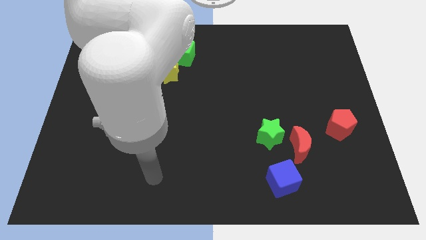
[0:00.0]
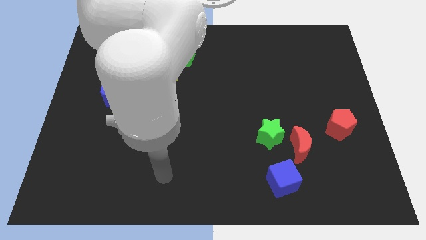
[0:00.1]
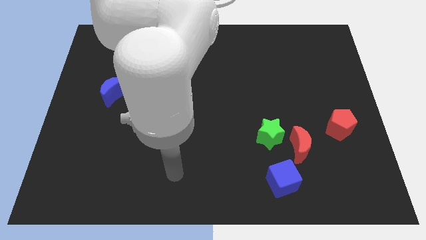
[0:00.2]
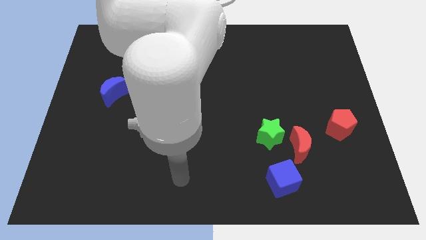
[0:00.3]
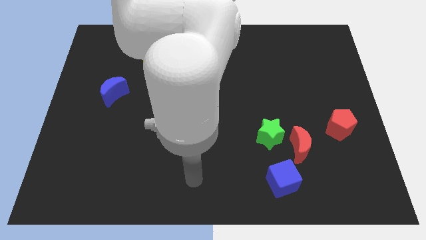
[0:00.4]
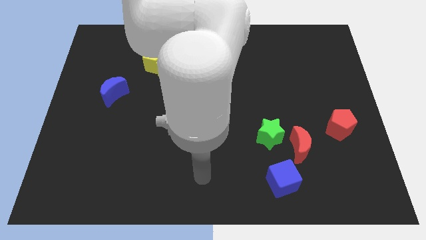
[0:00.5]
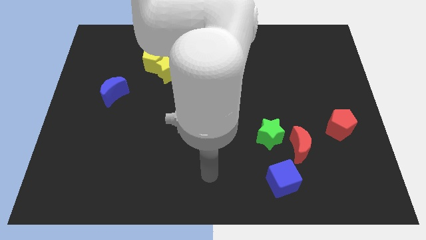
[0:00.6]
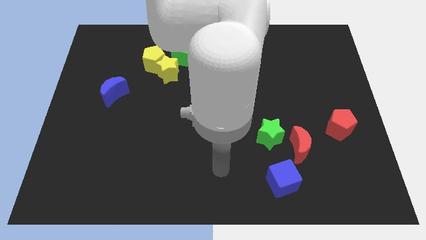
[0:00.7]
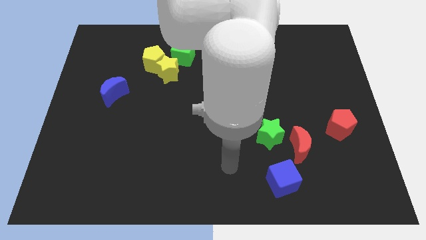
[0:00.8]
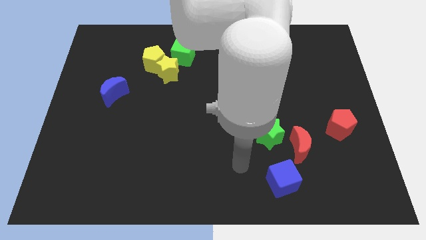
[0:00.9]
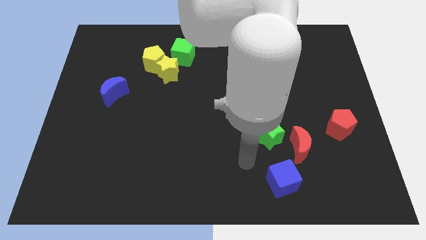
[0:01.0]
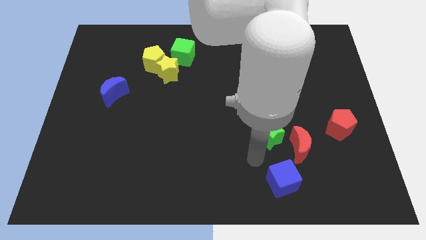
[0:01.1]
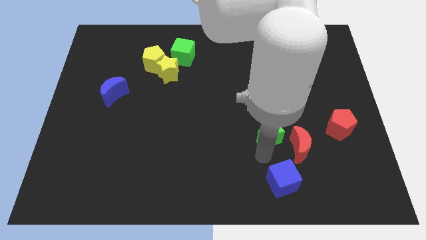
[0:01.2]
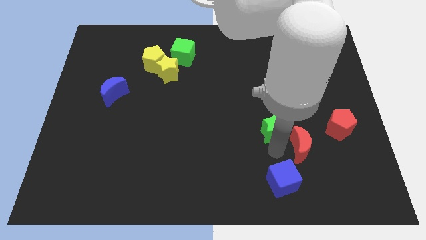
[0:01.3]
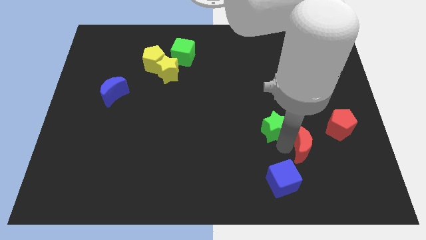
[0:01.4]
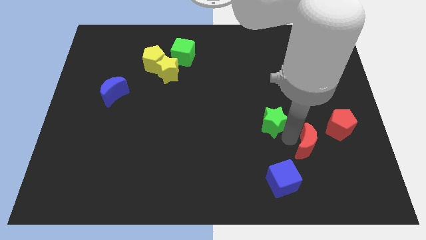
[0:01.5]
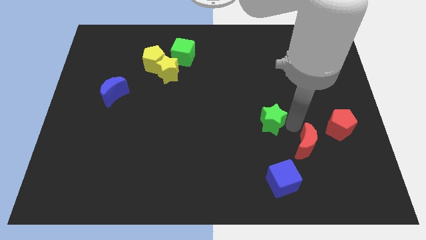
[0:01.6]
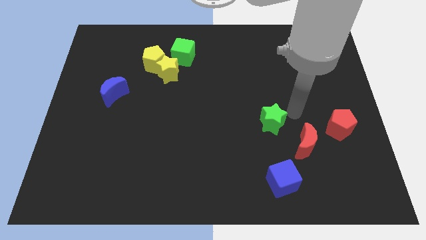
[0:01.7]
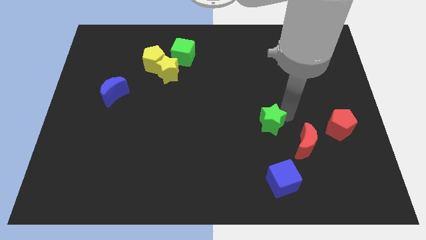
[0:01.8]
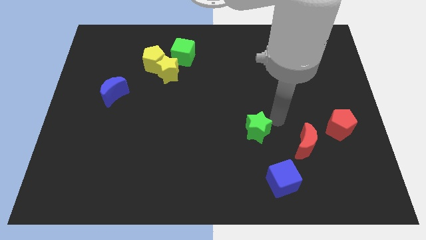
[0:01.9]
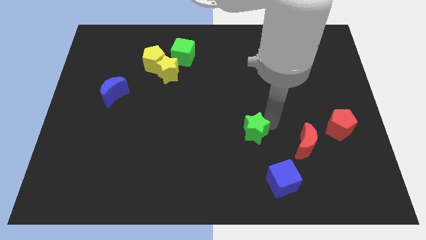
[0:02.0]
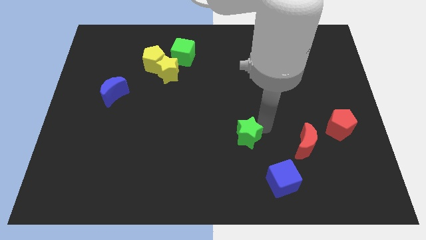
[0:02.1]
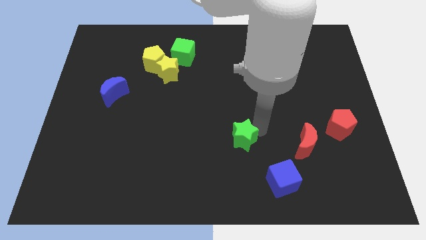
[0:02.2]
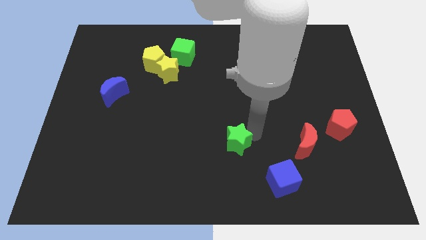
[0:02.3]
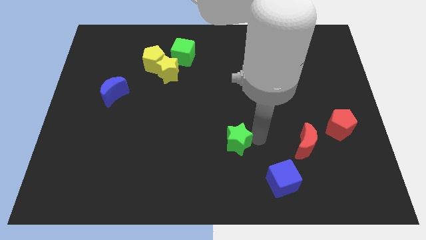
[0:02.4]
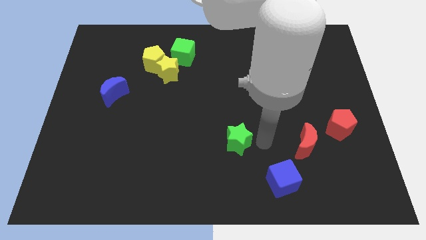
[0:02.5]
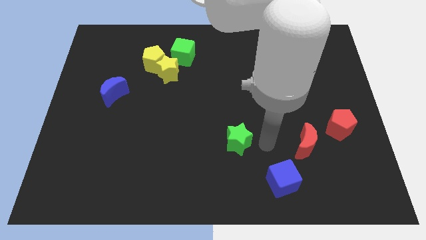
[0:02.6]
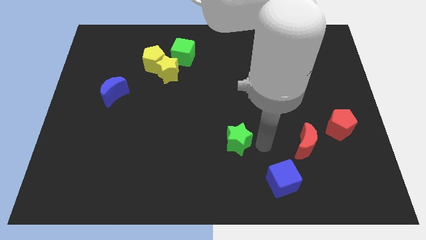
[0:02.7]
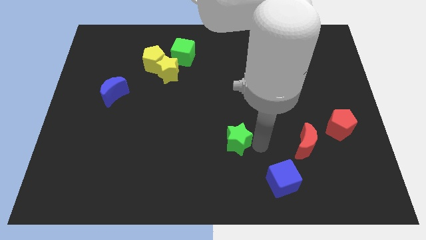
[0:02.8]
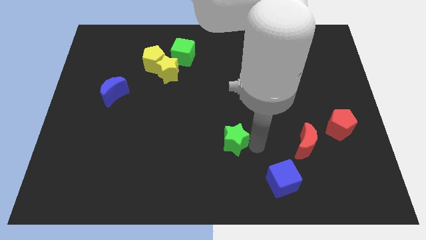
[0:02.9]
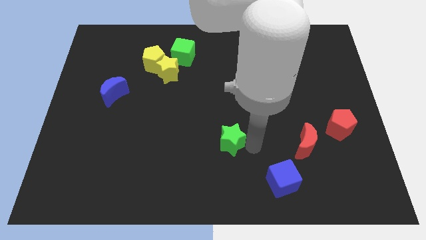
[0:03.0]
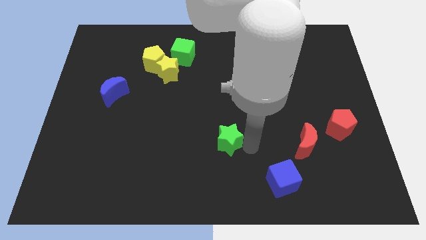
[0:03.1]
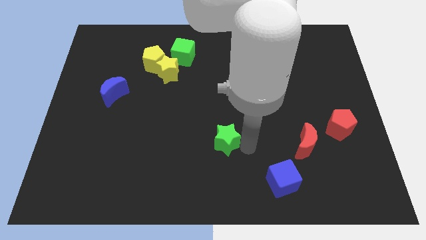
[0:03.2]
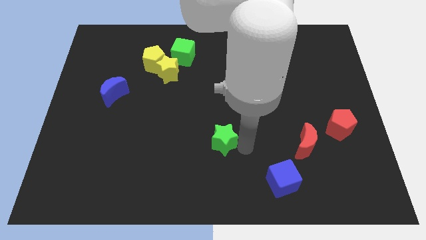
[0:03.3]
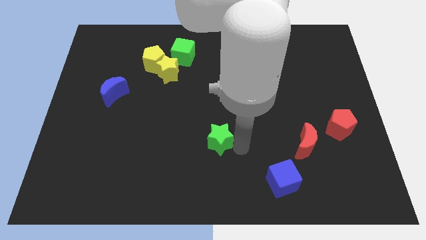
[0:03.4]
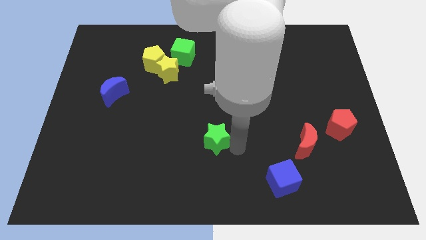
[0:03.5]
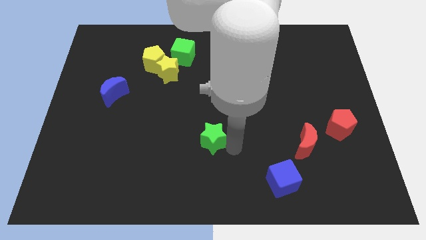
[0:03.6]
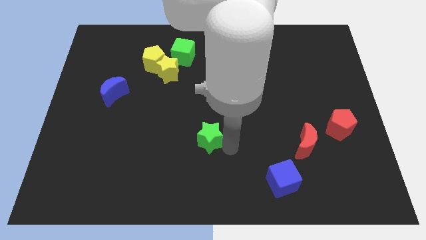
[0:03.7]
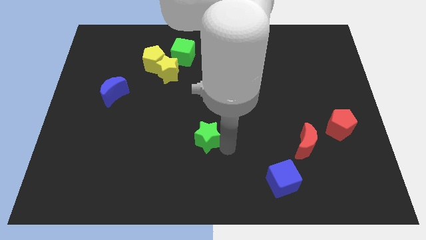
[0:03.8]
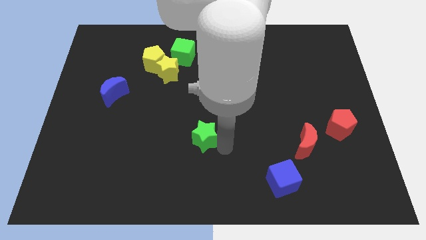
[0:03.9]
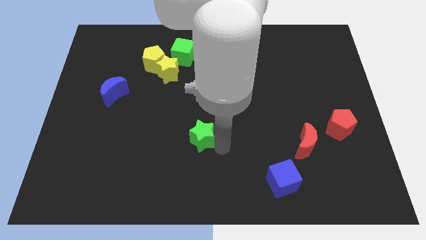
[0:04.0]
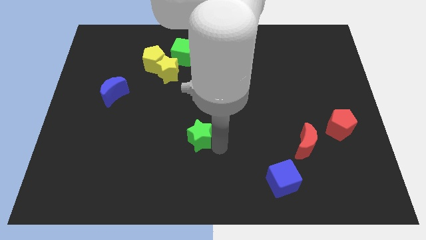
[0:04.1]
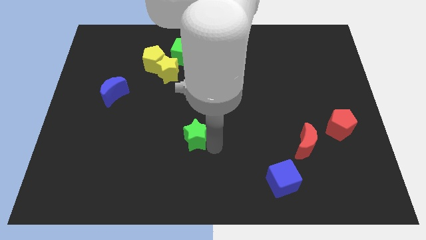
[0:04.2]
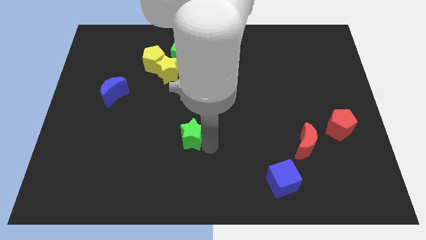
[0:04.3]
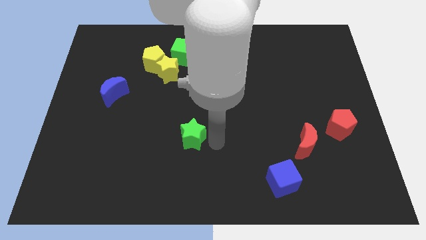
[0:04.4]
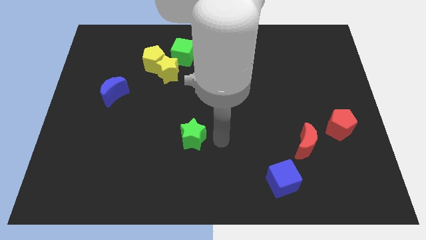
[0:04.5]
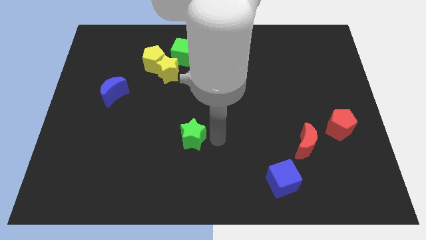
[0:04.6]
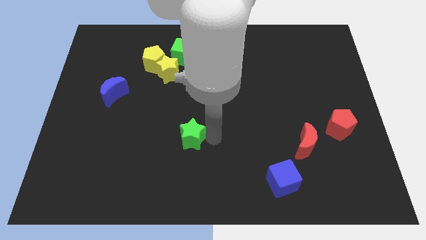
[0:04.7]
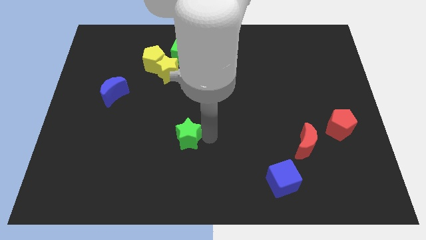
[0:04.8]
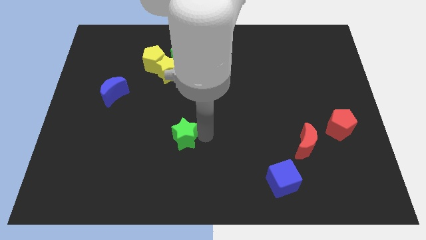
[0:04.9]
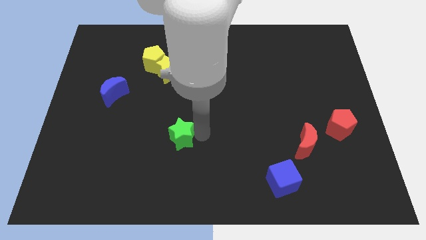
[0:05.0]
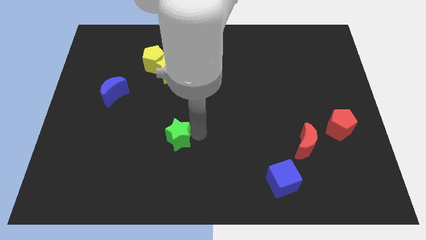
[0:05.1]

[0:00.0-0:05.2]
push the green star to the left

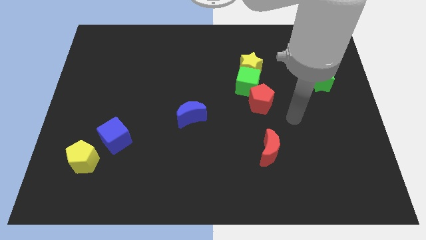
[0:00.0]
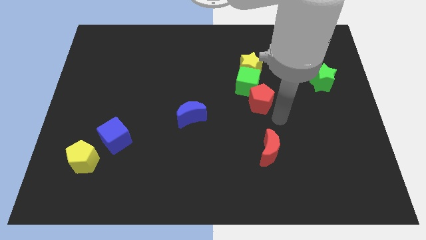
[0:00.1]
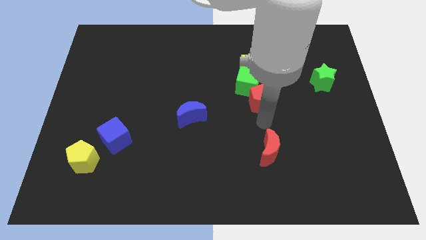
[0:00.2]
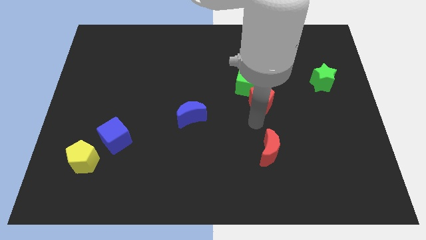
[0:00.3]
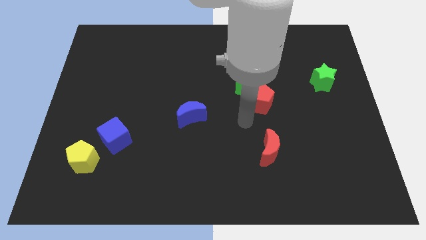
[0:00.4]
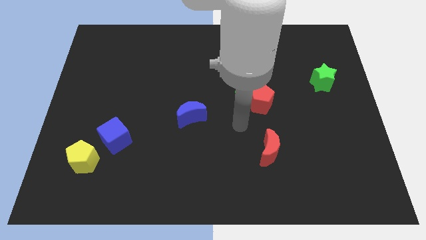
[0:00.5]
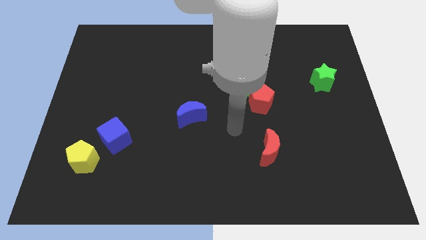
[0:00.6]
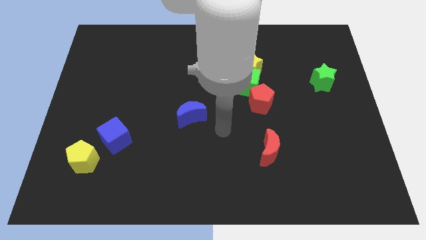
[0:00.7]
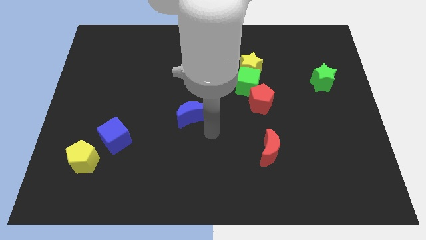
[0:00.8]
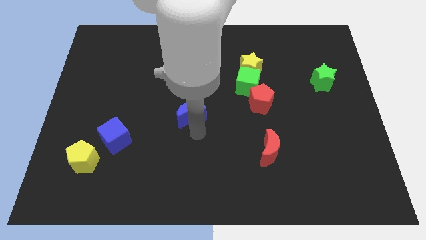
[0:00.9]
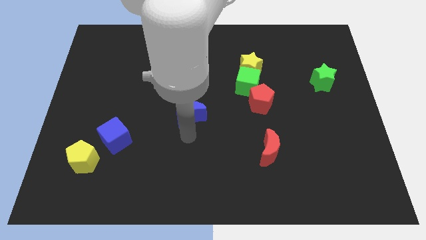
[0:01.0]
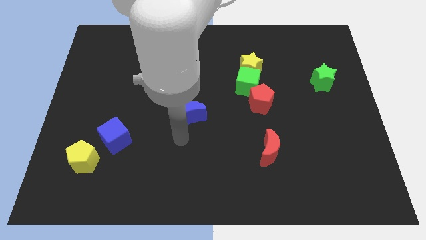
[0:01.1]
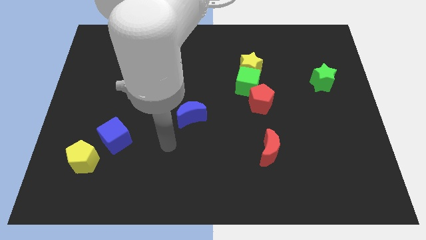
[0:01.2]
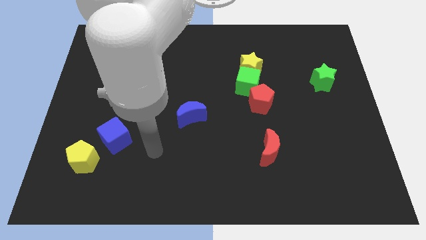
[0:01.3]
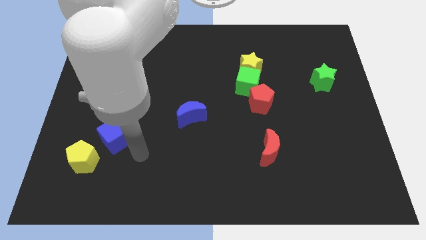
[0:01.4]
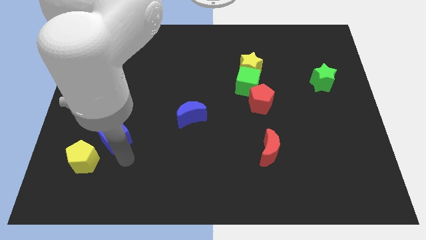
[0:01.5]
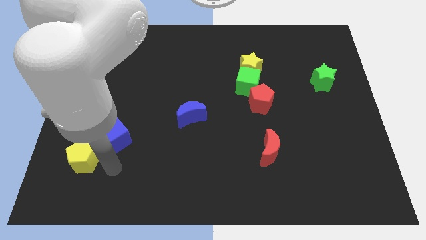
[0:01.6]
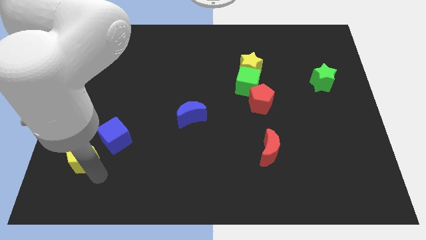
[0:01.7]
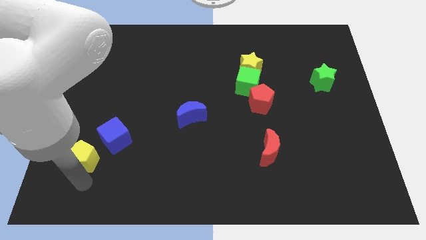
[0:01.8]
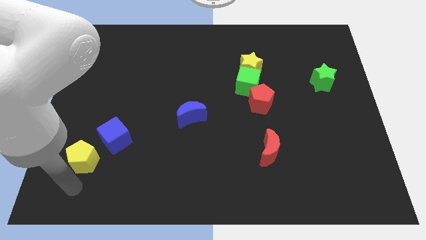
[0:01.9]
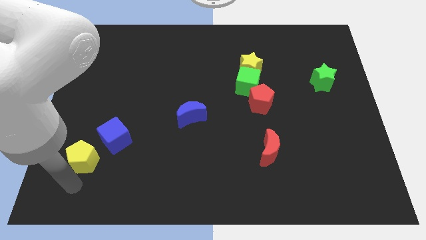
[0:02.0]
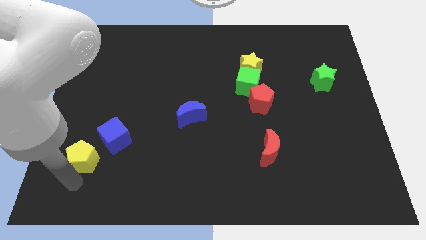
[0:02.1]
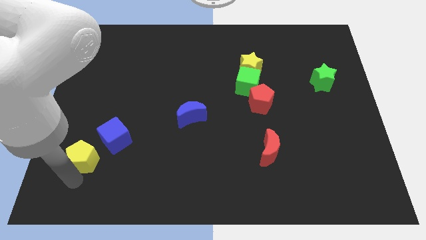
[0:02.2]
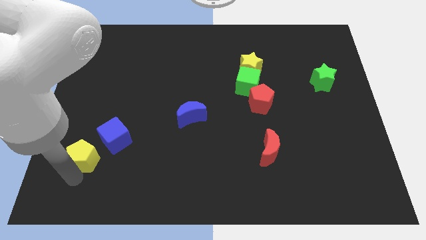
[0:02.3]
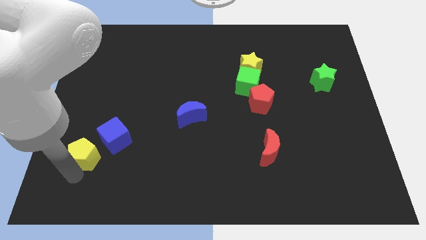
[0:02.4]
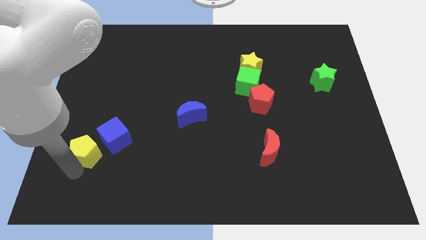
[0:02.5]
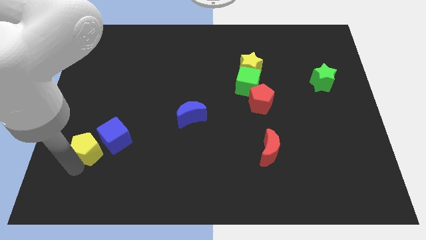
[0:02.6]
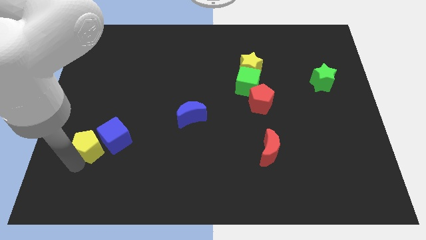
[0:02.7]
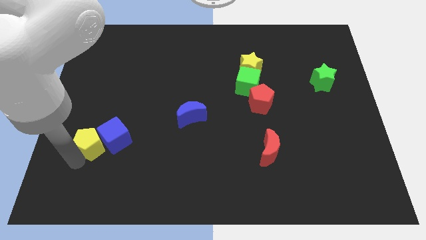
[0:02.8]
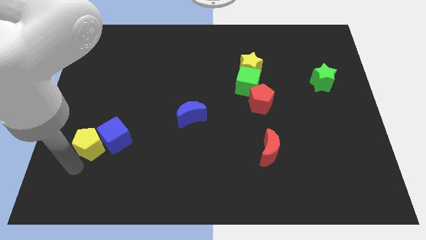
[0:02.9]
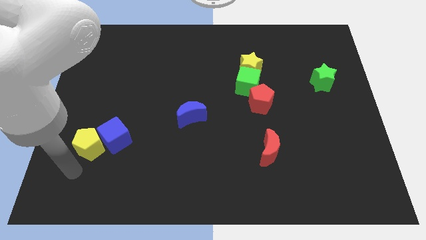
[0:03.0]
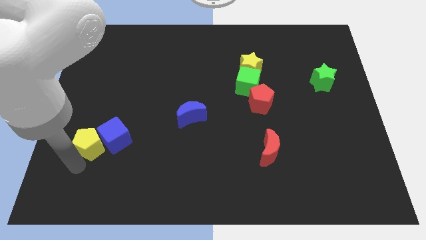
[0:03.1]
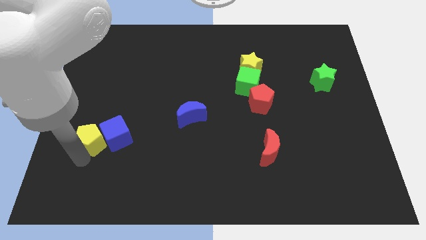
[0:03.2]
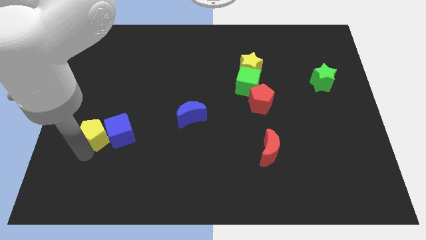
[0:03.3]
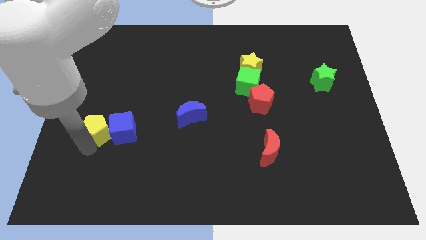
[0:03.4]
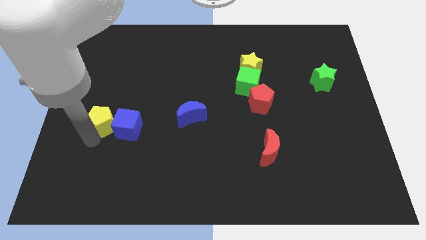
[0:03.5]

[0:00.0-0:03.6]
move the yellow pentagon upwards and right diagonally a bit
